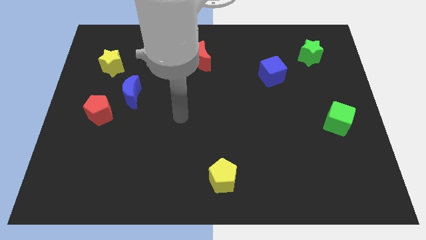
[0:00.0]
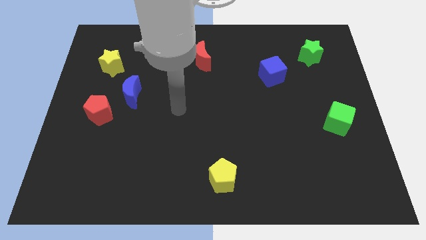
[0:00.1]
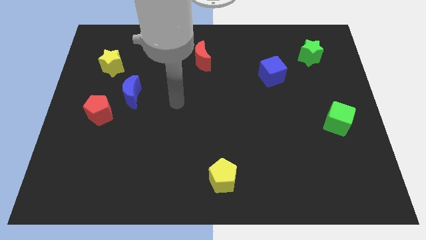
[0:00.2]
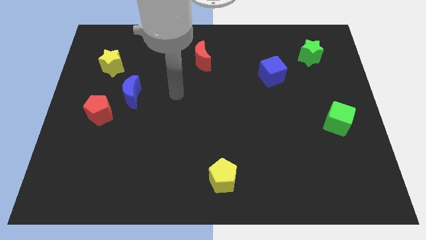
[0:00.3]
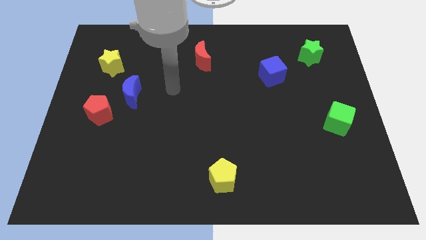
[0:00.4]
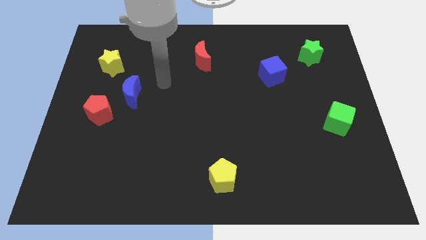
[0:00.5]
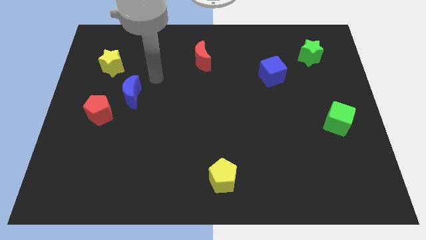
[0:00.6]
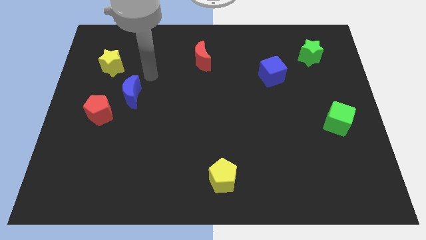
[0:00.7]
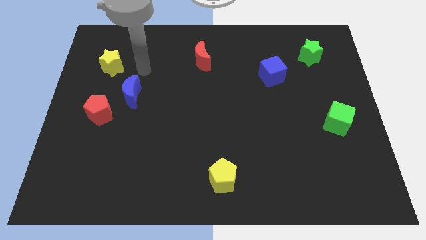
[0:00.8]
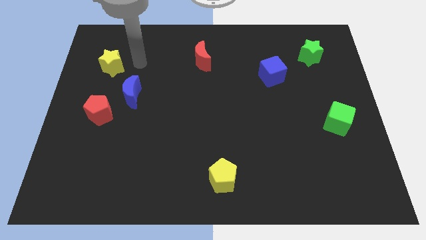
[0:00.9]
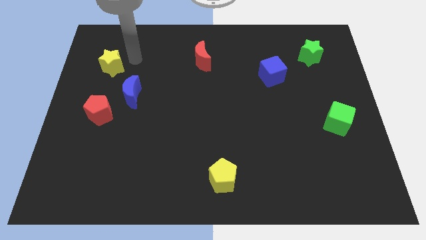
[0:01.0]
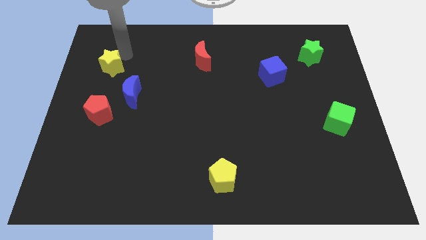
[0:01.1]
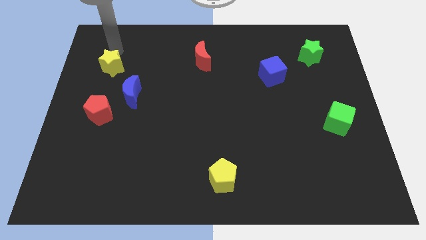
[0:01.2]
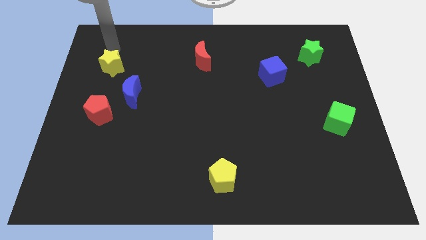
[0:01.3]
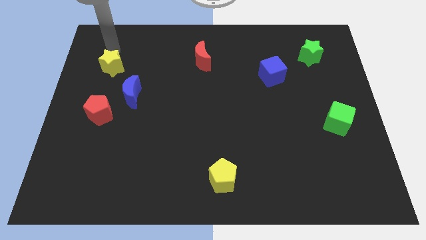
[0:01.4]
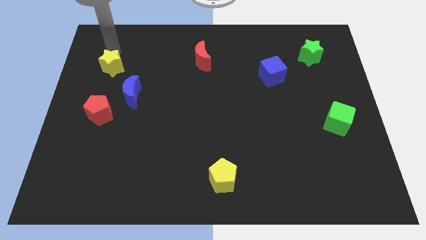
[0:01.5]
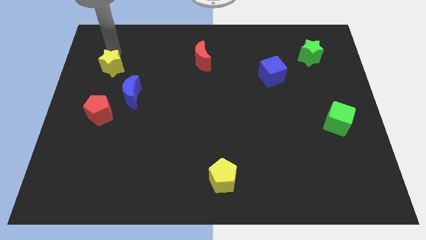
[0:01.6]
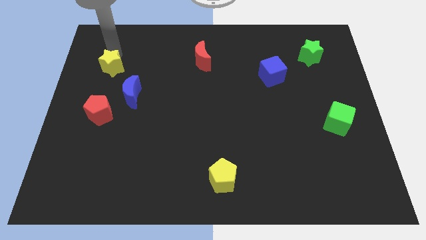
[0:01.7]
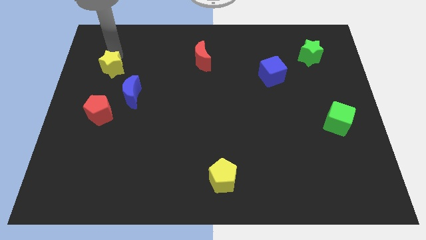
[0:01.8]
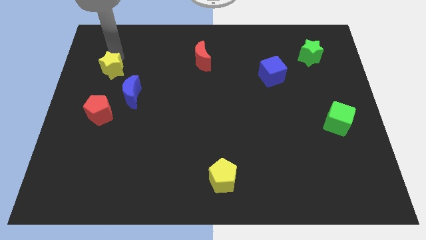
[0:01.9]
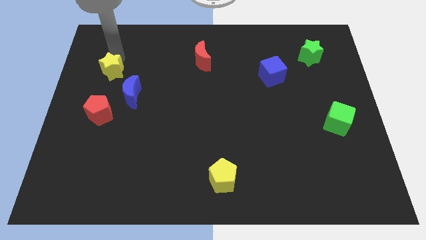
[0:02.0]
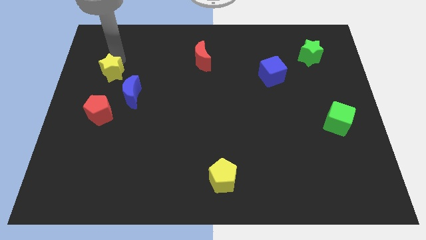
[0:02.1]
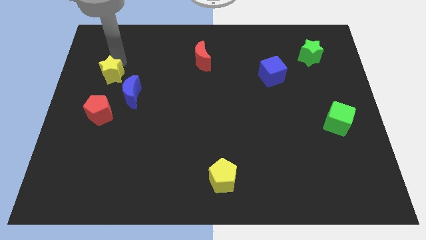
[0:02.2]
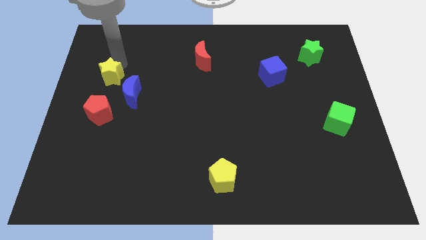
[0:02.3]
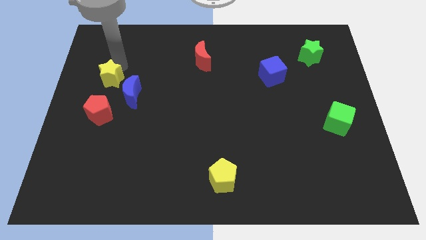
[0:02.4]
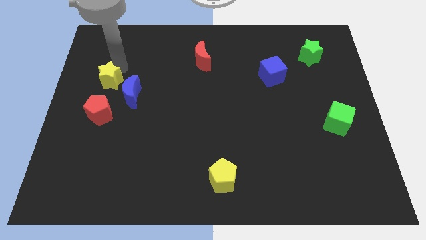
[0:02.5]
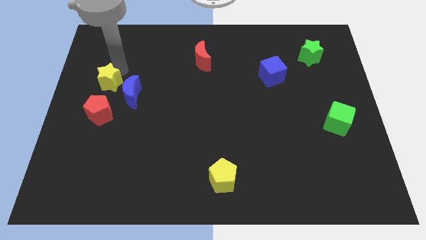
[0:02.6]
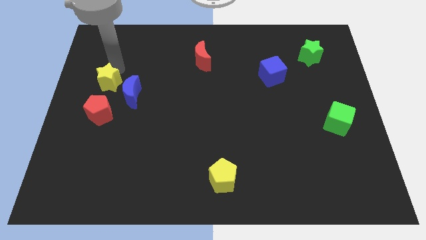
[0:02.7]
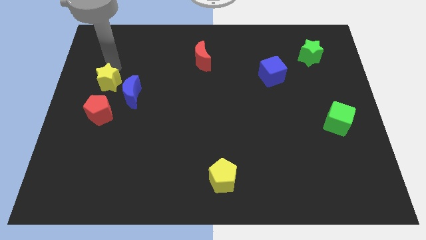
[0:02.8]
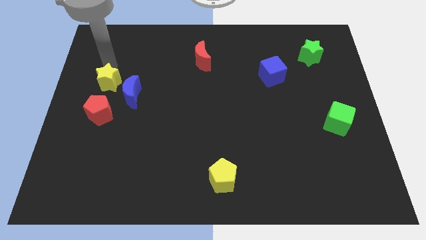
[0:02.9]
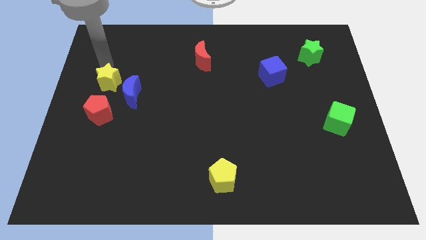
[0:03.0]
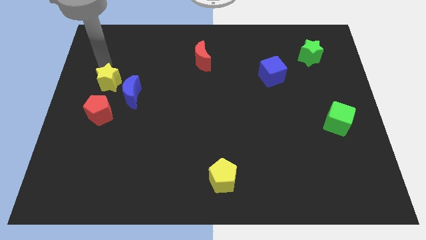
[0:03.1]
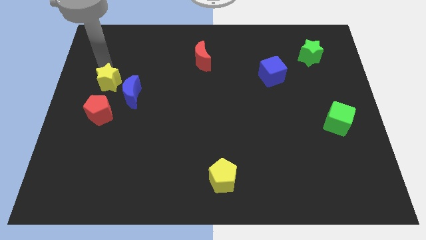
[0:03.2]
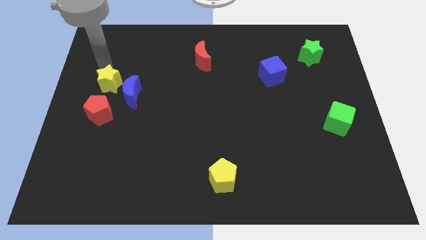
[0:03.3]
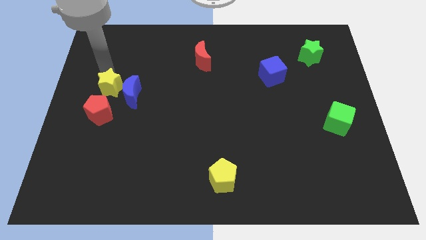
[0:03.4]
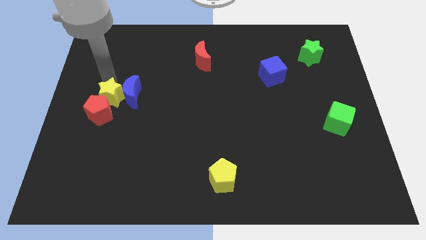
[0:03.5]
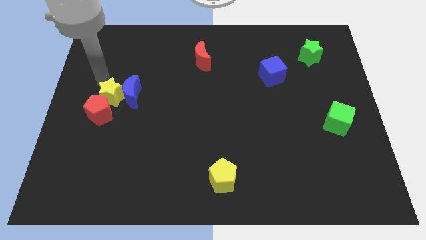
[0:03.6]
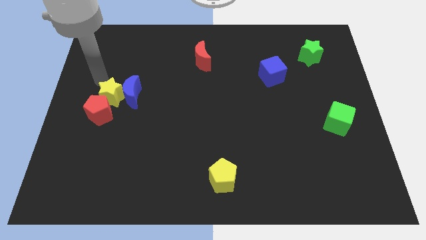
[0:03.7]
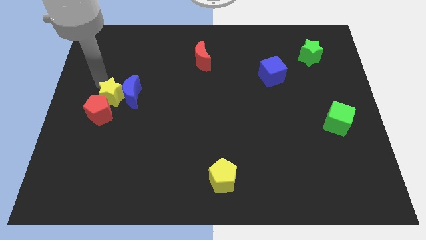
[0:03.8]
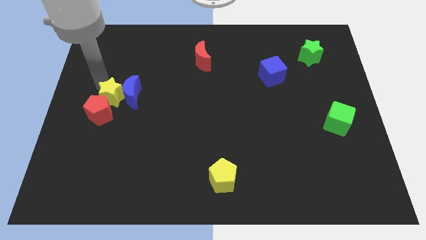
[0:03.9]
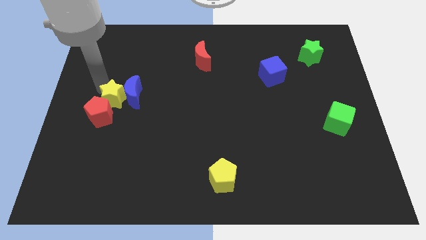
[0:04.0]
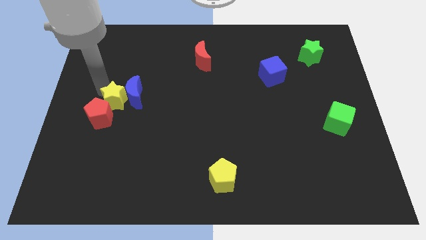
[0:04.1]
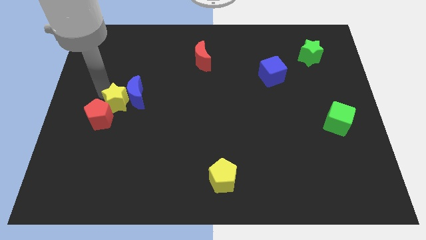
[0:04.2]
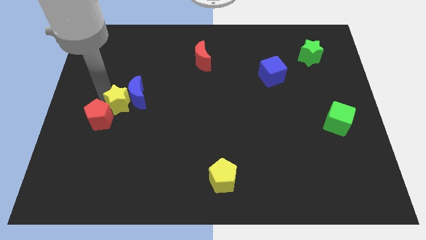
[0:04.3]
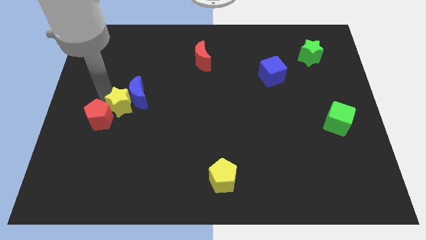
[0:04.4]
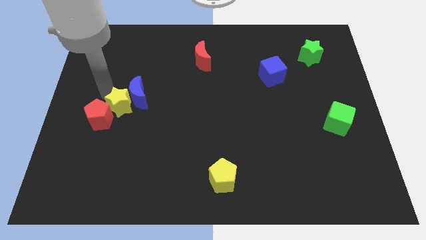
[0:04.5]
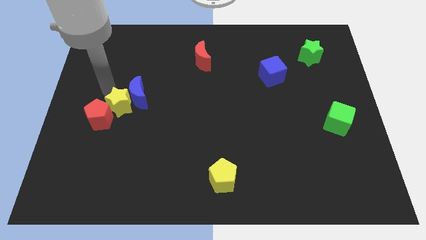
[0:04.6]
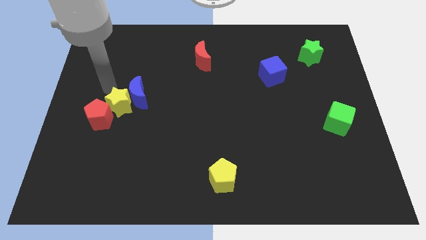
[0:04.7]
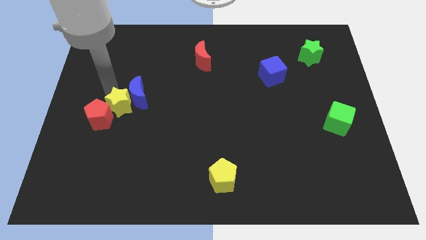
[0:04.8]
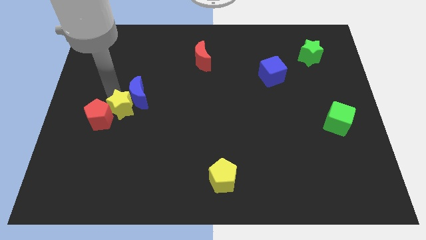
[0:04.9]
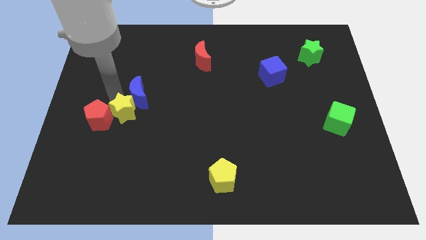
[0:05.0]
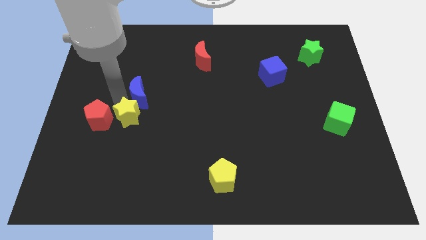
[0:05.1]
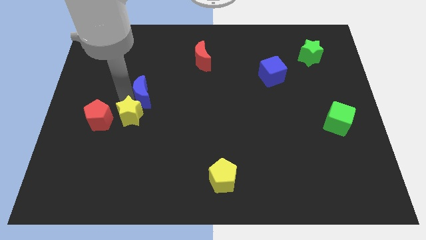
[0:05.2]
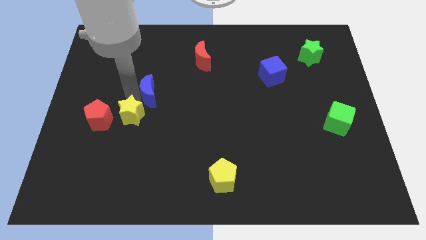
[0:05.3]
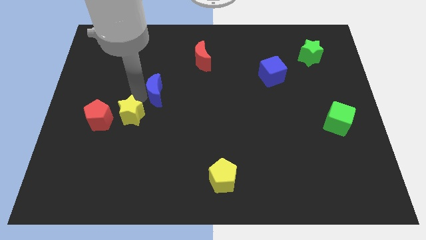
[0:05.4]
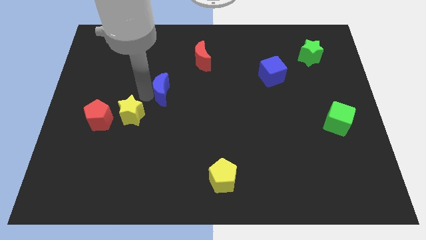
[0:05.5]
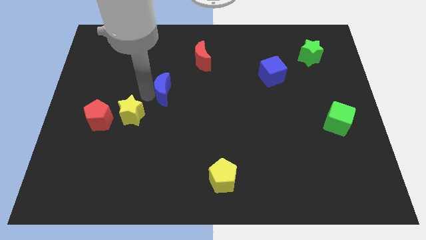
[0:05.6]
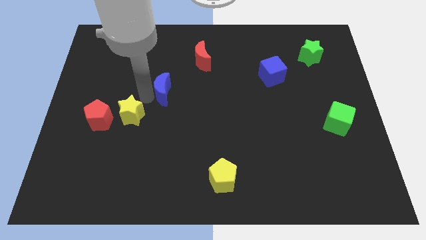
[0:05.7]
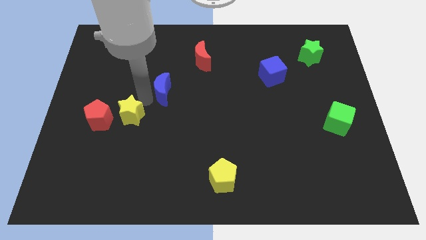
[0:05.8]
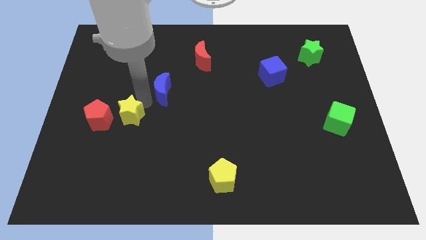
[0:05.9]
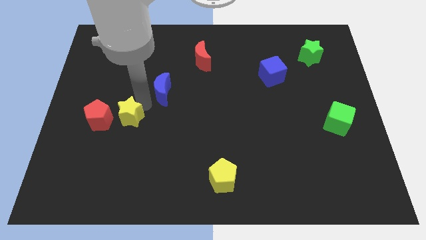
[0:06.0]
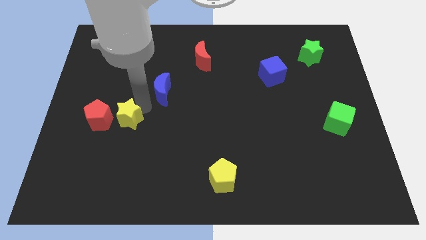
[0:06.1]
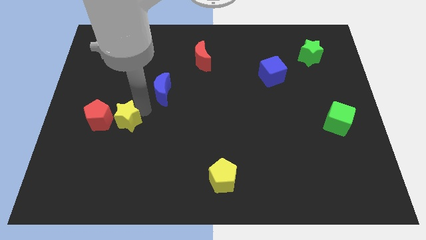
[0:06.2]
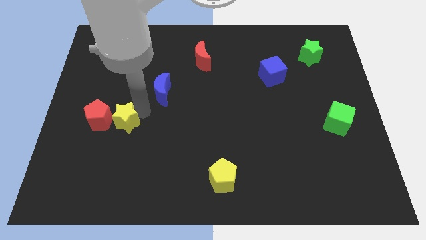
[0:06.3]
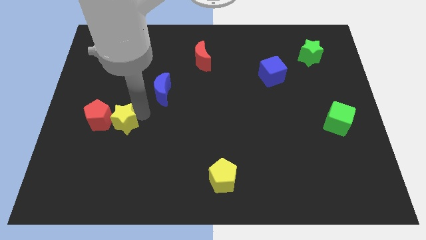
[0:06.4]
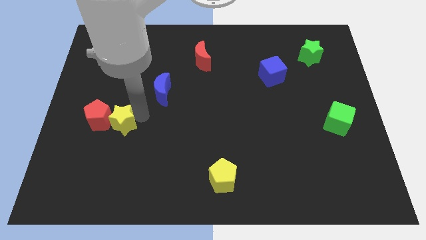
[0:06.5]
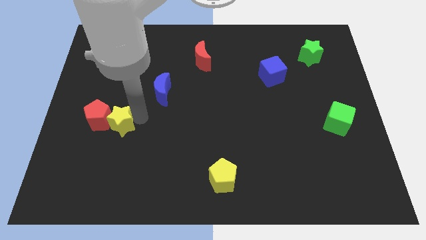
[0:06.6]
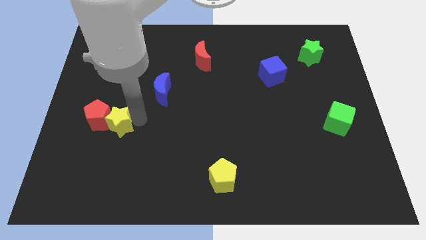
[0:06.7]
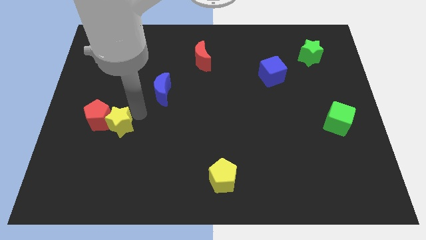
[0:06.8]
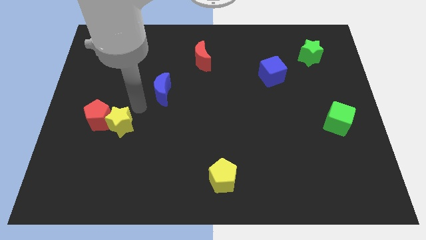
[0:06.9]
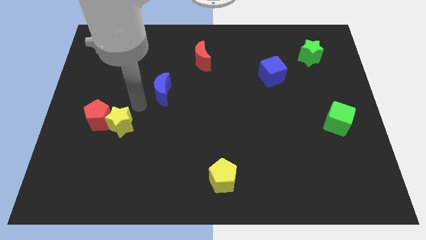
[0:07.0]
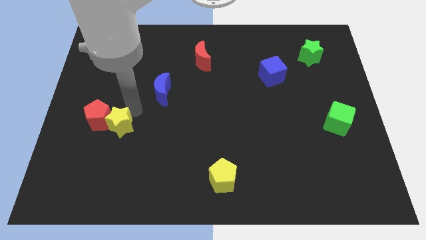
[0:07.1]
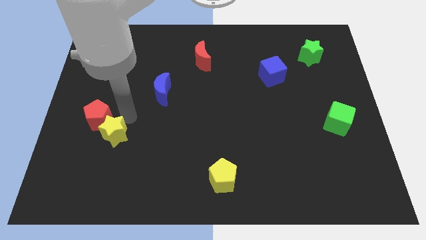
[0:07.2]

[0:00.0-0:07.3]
push the yellow star downwards

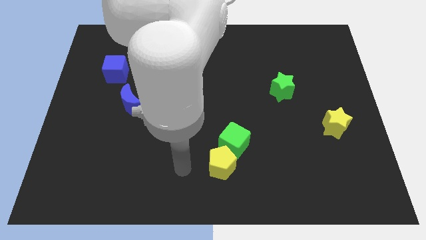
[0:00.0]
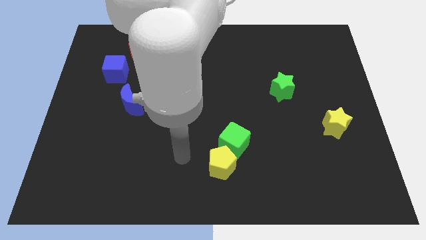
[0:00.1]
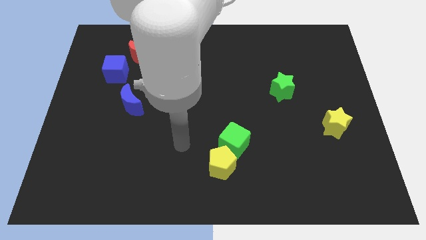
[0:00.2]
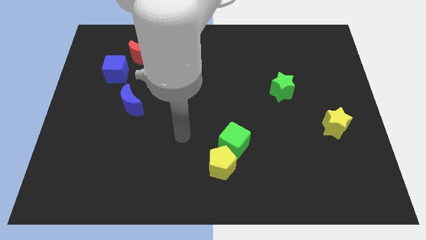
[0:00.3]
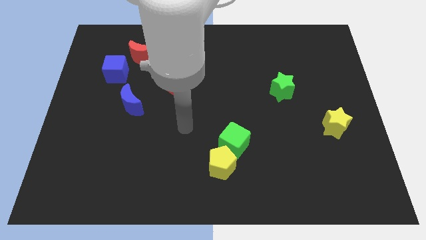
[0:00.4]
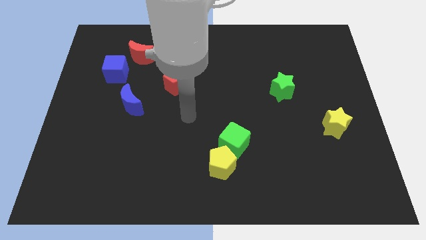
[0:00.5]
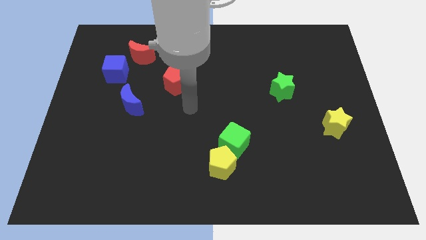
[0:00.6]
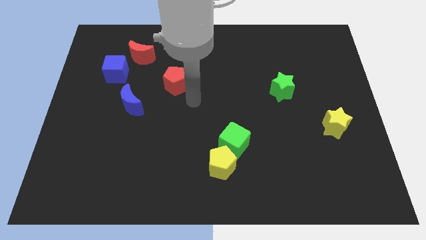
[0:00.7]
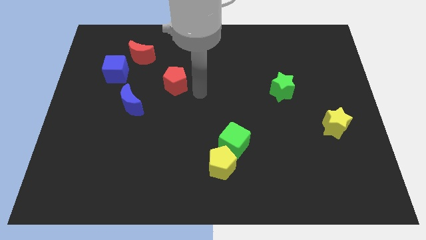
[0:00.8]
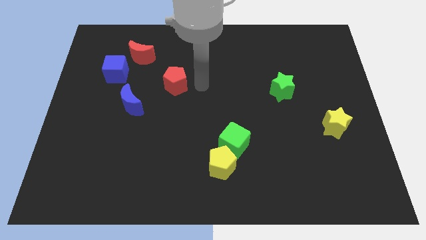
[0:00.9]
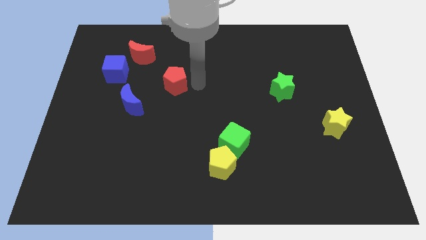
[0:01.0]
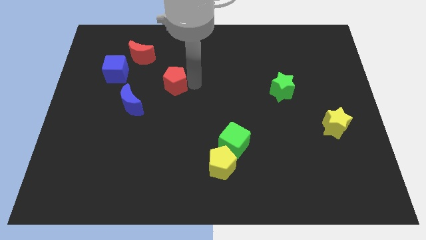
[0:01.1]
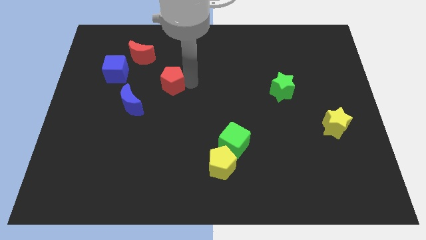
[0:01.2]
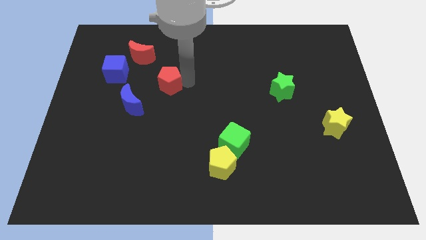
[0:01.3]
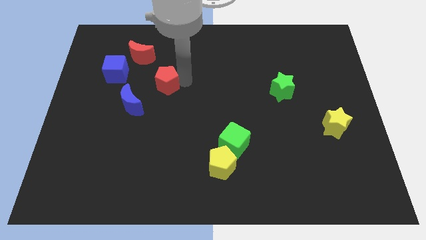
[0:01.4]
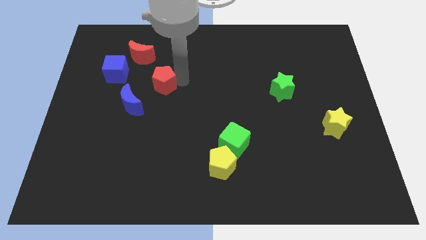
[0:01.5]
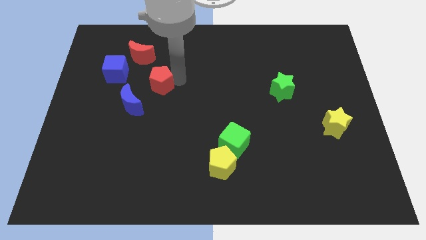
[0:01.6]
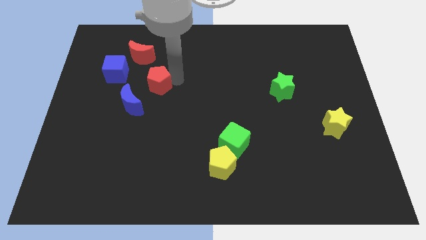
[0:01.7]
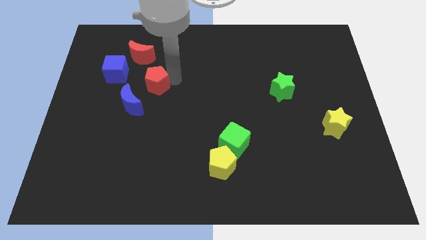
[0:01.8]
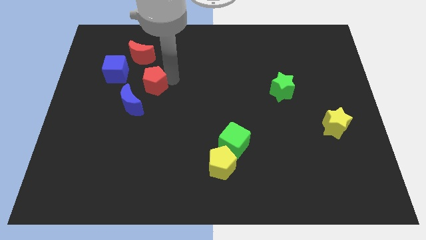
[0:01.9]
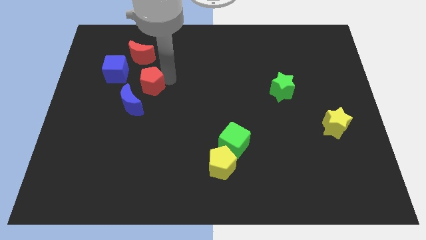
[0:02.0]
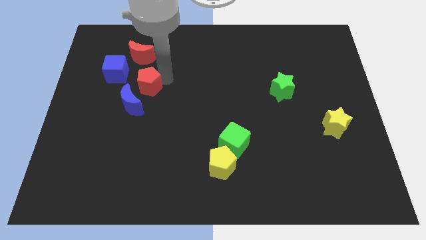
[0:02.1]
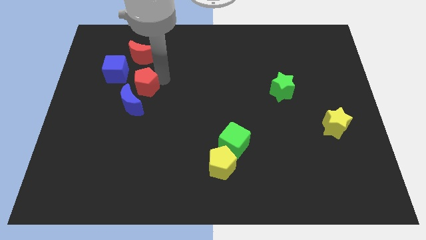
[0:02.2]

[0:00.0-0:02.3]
slightly slide the red pentagon left
